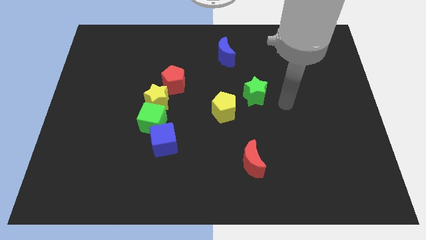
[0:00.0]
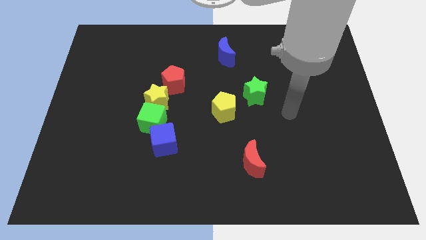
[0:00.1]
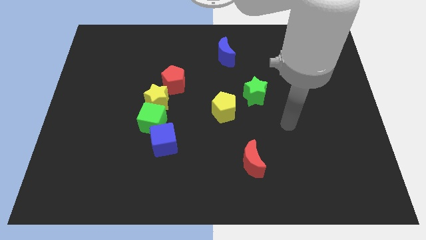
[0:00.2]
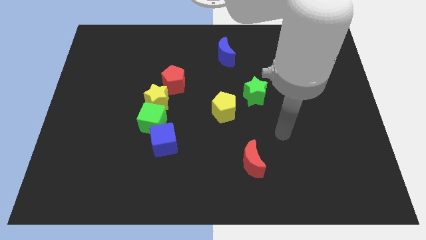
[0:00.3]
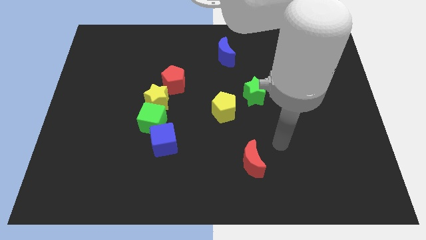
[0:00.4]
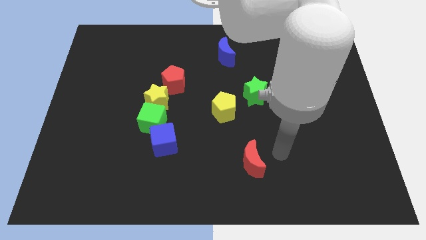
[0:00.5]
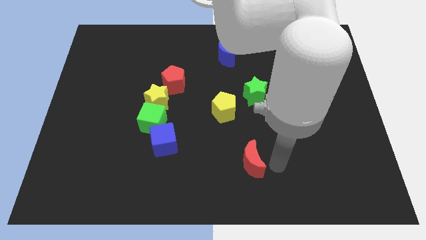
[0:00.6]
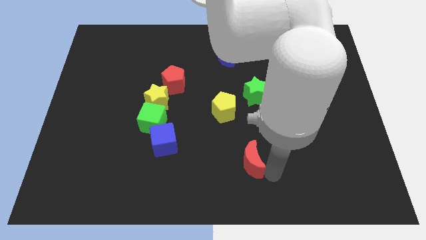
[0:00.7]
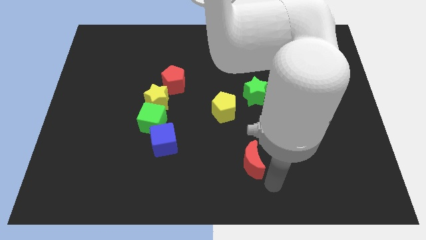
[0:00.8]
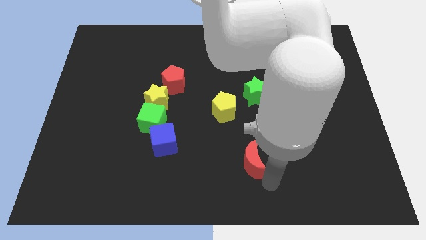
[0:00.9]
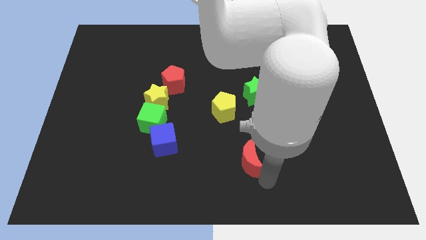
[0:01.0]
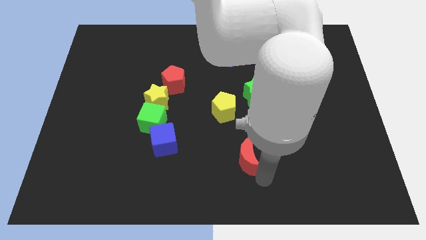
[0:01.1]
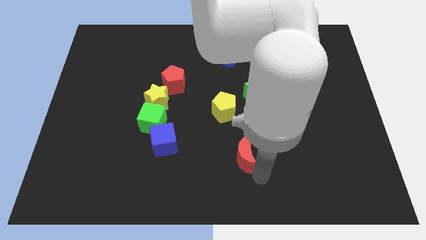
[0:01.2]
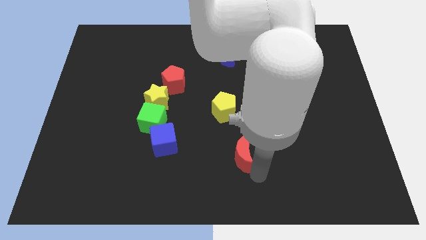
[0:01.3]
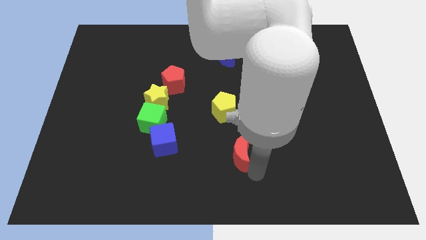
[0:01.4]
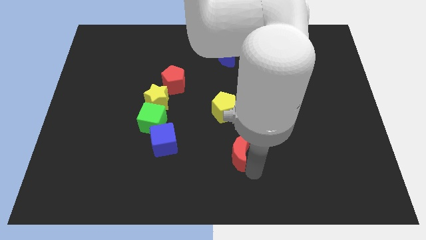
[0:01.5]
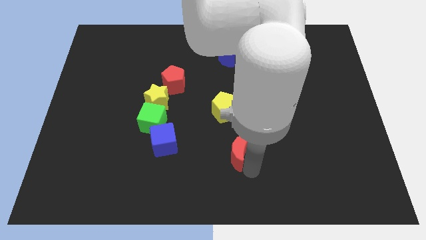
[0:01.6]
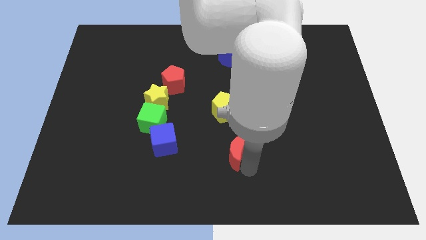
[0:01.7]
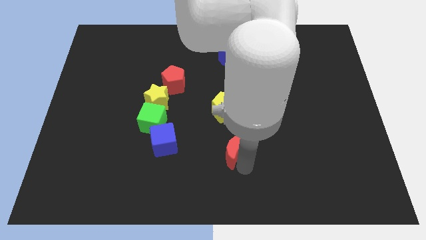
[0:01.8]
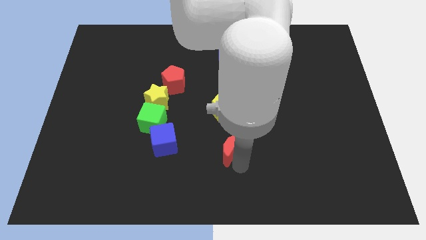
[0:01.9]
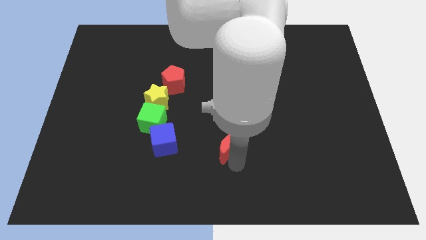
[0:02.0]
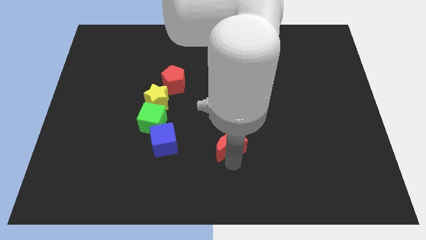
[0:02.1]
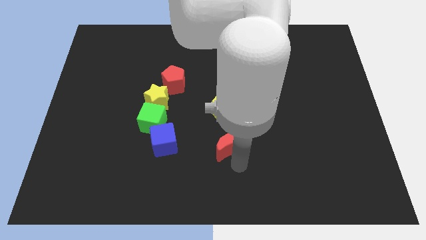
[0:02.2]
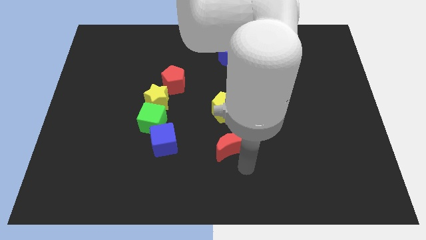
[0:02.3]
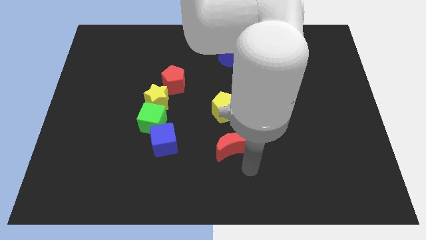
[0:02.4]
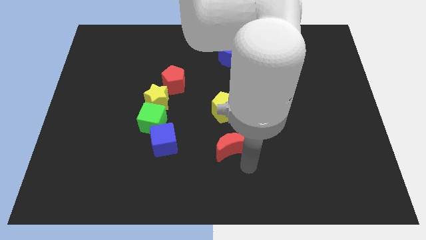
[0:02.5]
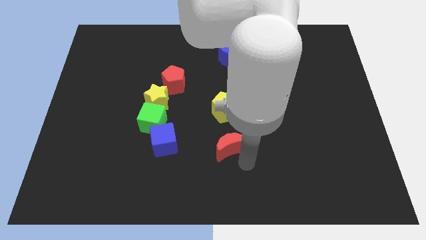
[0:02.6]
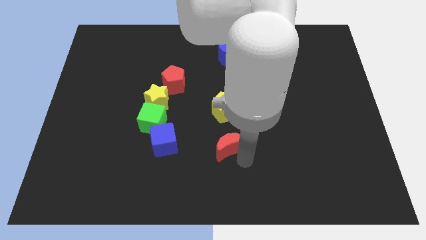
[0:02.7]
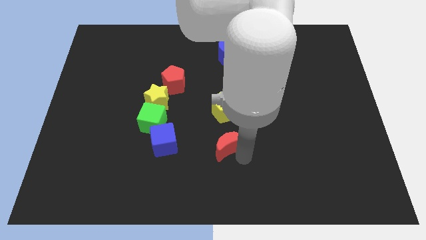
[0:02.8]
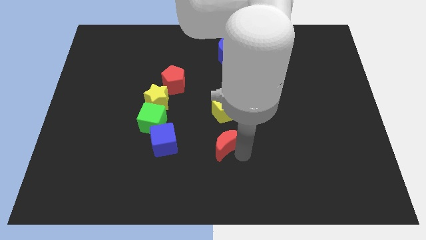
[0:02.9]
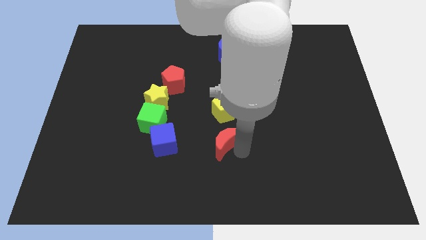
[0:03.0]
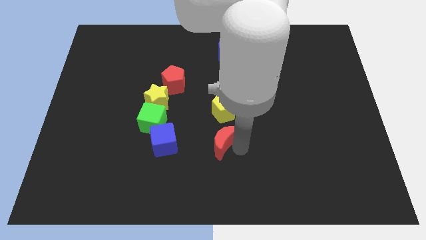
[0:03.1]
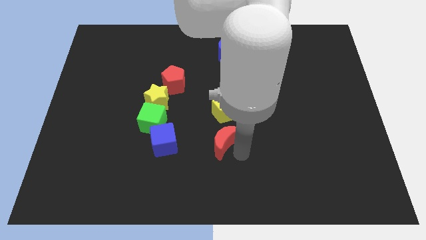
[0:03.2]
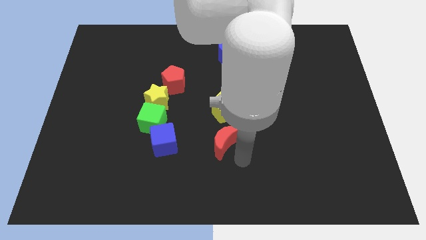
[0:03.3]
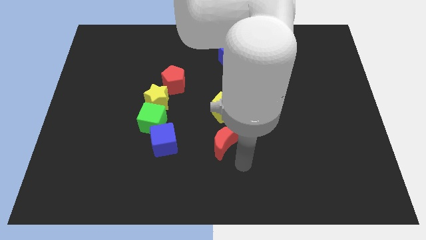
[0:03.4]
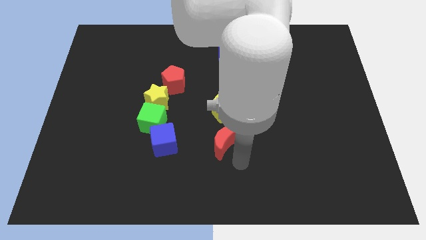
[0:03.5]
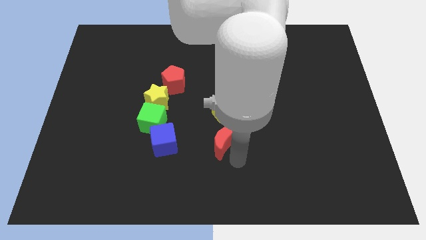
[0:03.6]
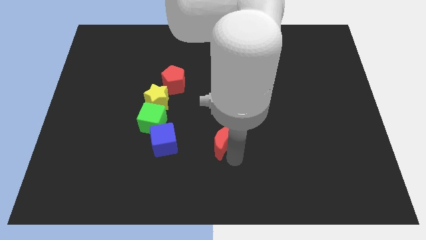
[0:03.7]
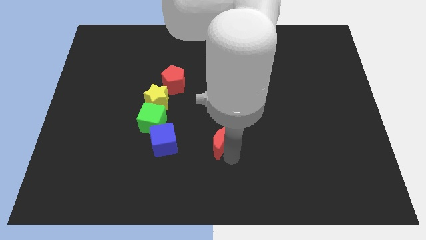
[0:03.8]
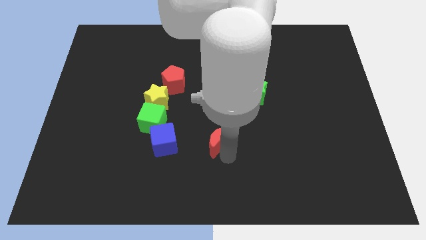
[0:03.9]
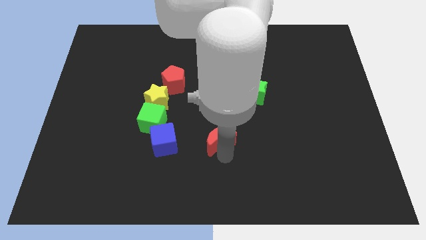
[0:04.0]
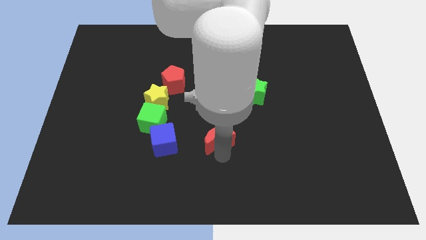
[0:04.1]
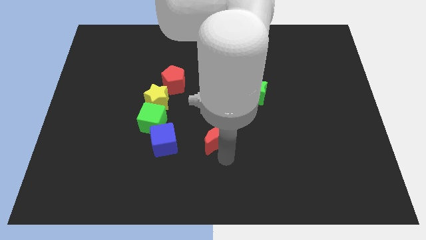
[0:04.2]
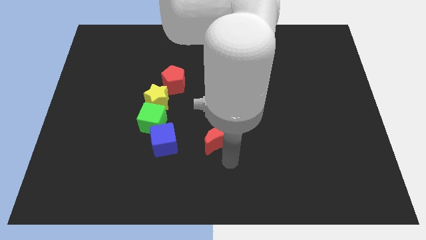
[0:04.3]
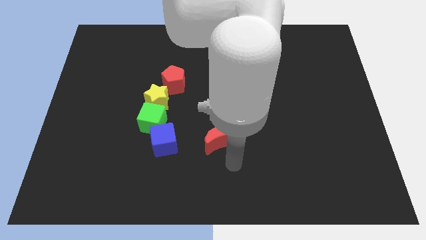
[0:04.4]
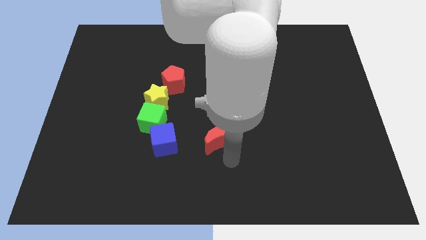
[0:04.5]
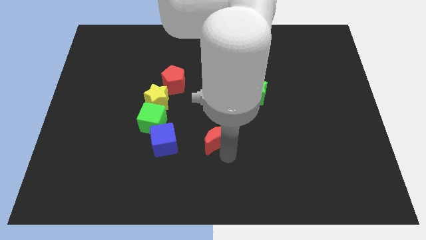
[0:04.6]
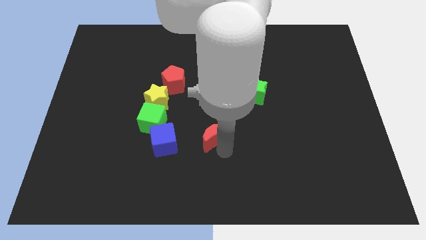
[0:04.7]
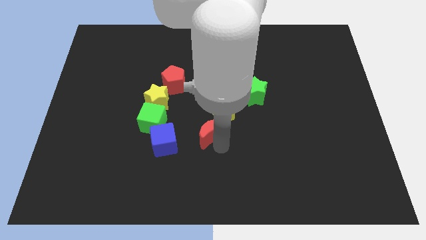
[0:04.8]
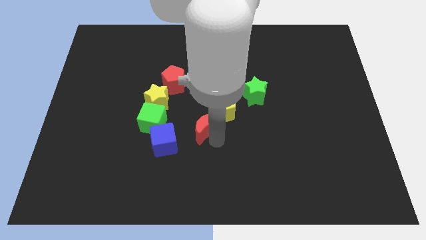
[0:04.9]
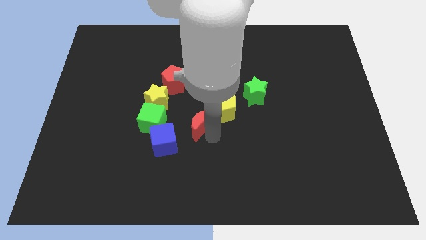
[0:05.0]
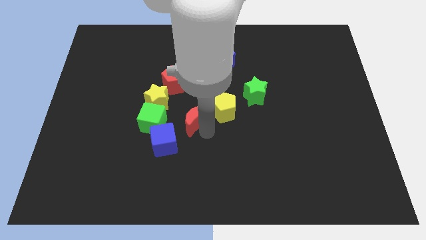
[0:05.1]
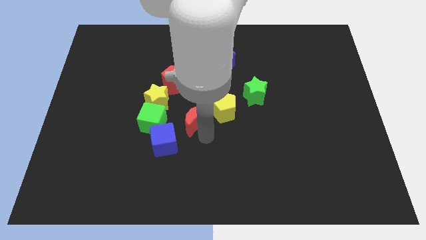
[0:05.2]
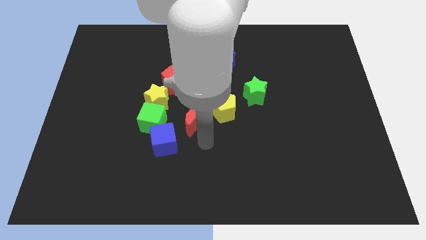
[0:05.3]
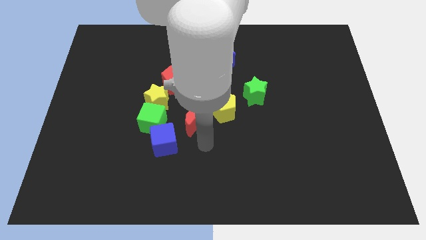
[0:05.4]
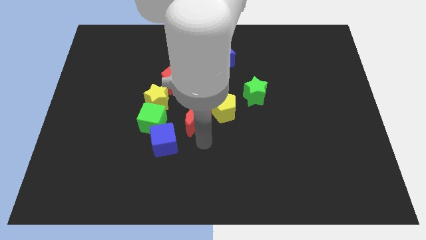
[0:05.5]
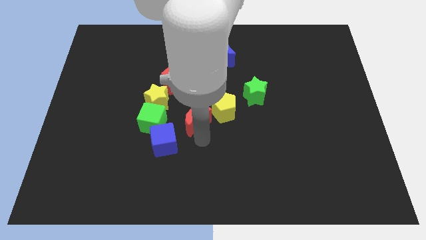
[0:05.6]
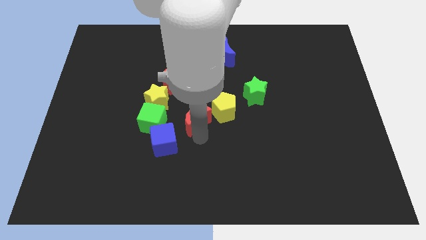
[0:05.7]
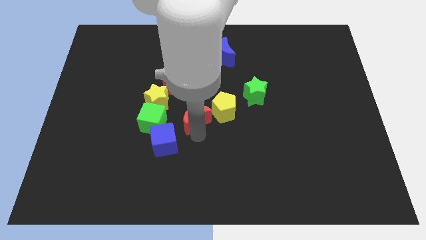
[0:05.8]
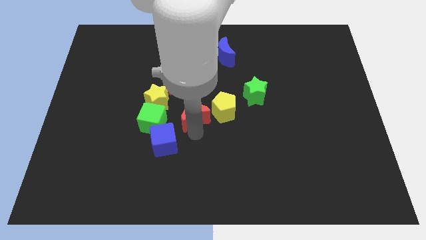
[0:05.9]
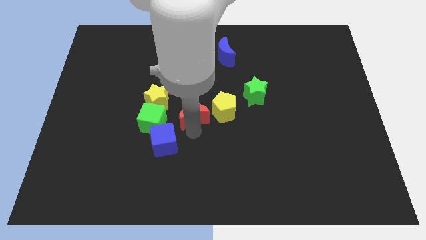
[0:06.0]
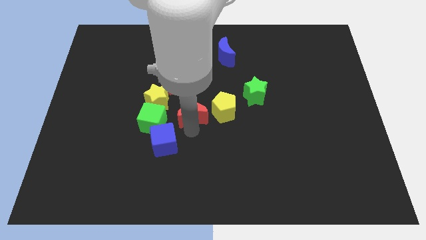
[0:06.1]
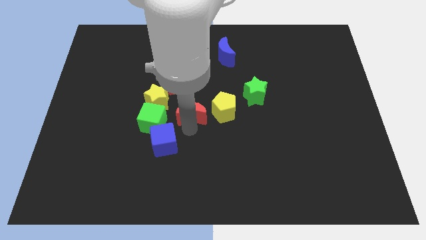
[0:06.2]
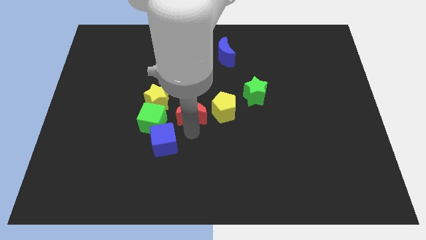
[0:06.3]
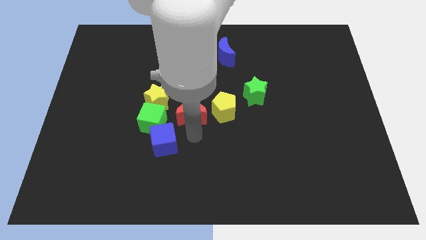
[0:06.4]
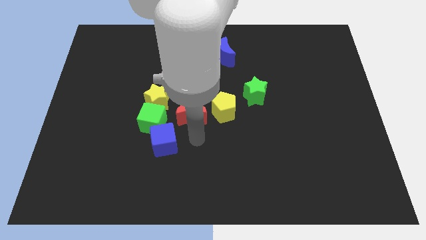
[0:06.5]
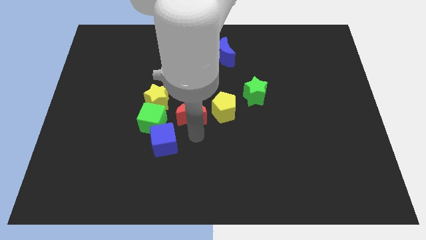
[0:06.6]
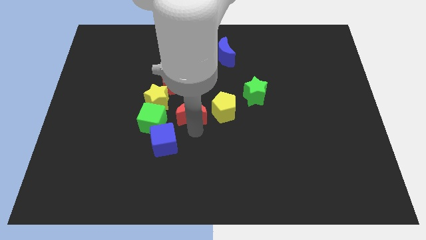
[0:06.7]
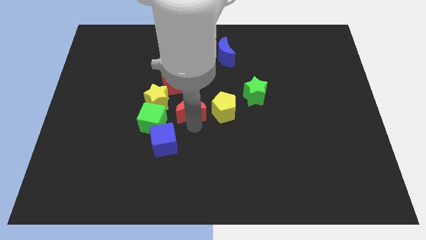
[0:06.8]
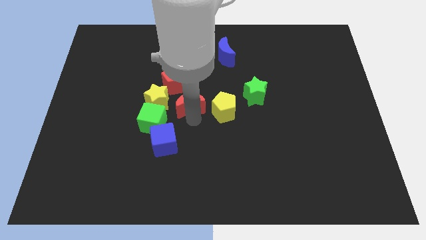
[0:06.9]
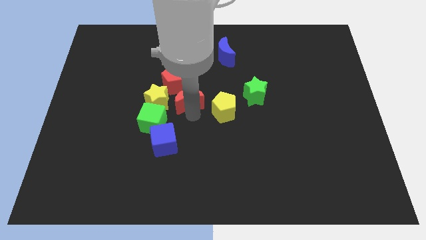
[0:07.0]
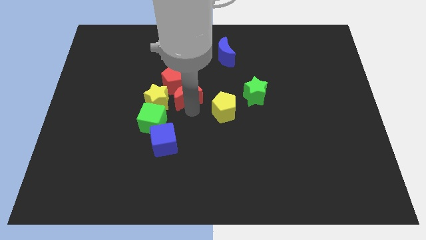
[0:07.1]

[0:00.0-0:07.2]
push the red moon to the red pentagon
